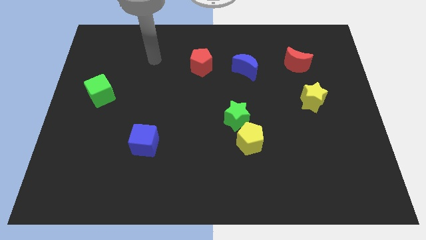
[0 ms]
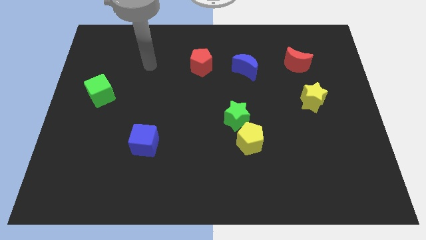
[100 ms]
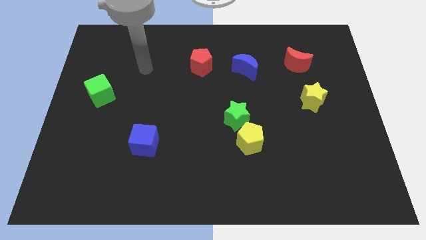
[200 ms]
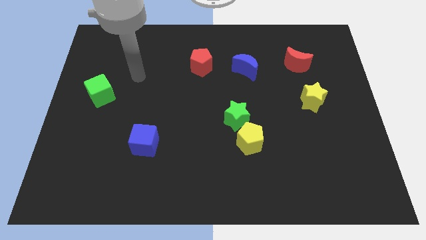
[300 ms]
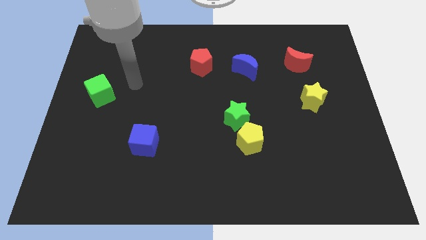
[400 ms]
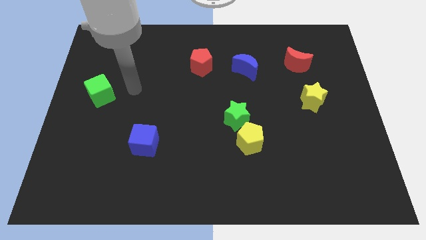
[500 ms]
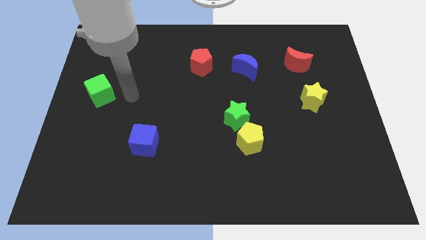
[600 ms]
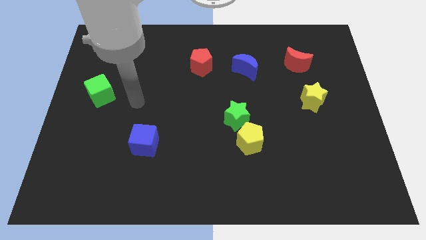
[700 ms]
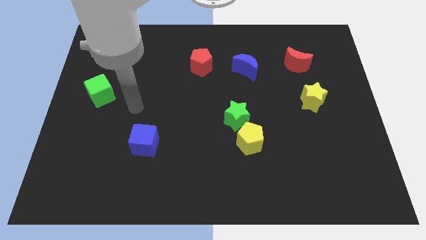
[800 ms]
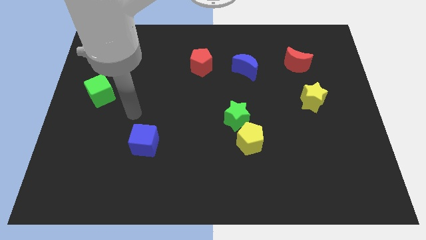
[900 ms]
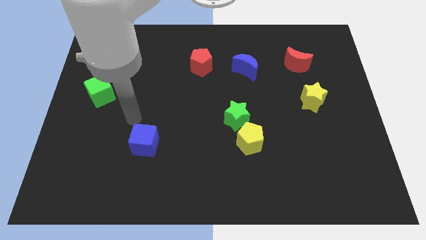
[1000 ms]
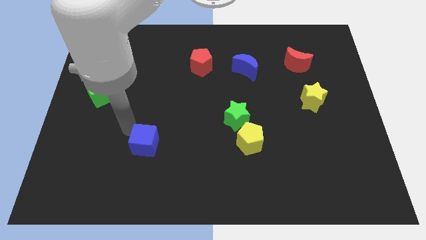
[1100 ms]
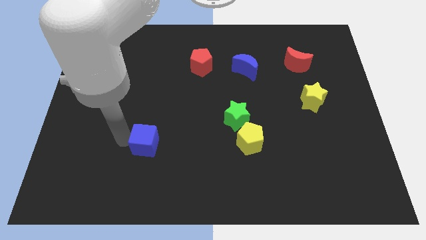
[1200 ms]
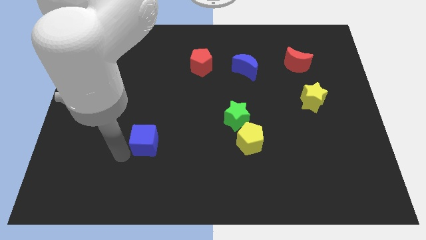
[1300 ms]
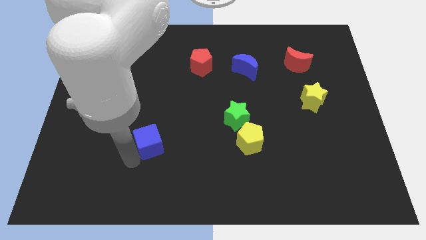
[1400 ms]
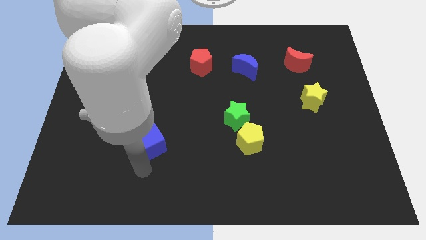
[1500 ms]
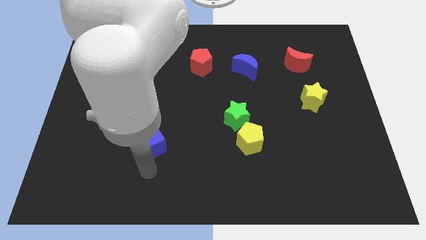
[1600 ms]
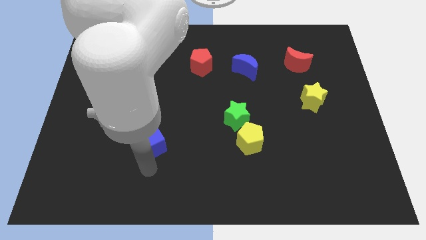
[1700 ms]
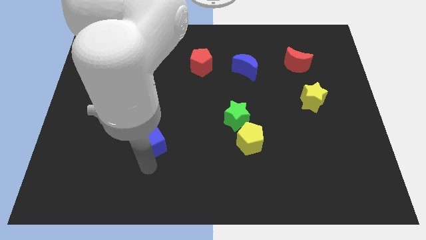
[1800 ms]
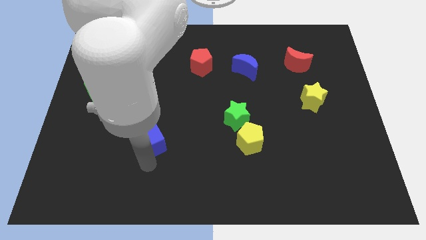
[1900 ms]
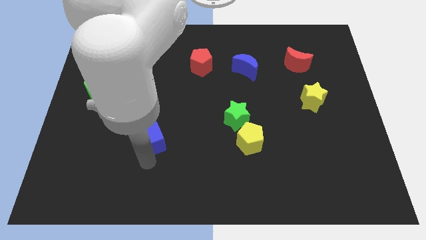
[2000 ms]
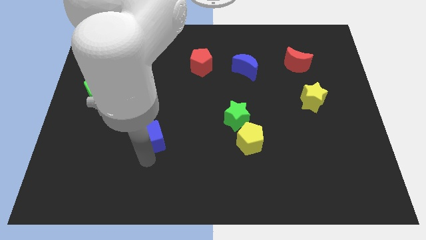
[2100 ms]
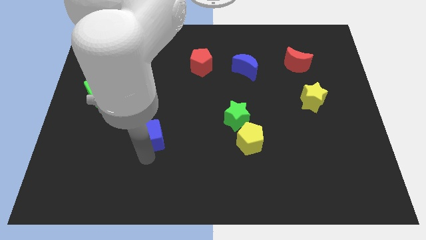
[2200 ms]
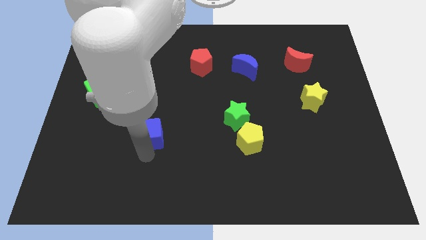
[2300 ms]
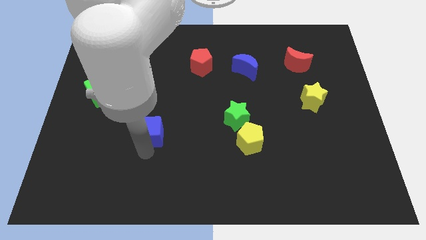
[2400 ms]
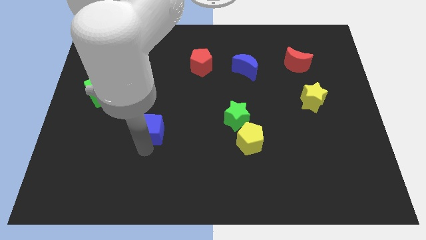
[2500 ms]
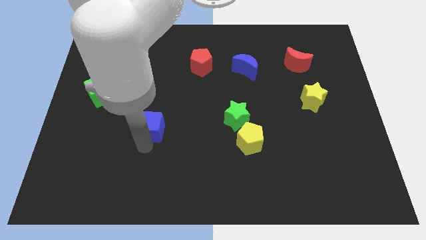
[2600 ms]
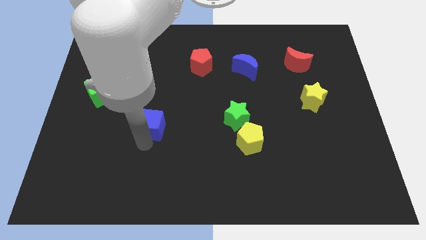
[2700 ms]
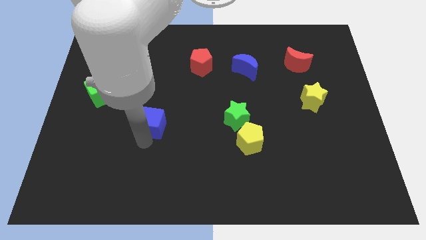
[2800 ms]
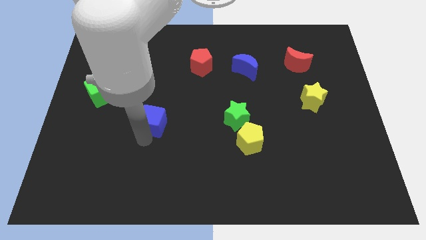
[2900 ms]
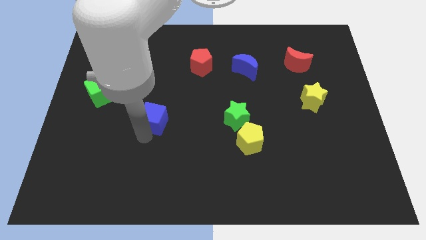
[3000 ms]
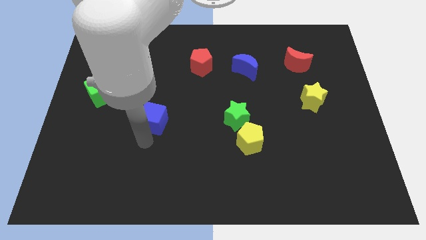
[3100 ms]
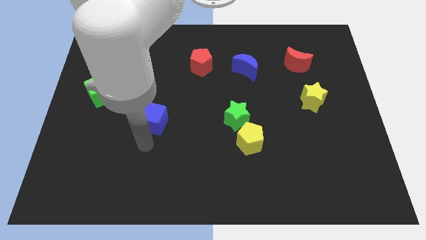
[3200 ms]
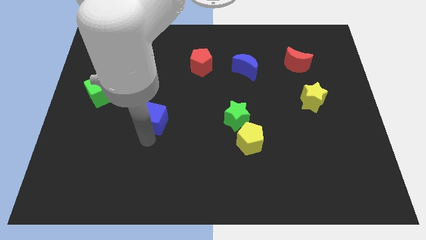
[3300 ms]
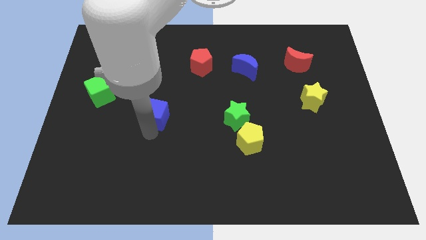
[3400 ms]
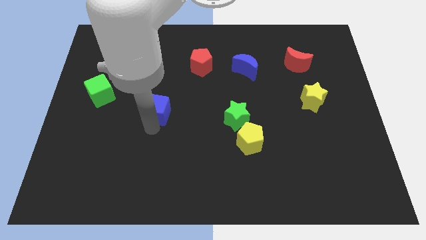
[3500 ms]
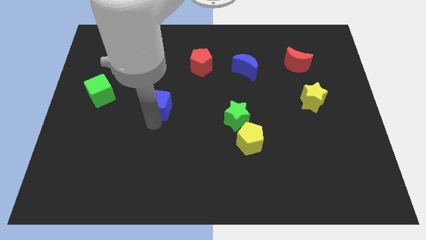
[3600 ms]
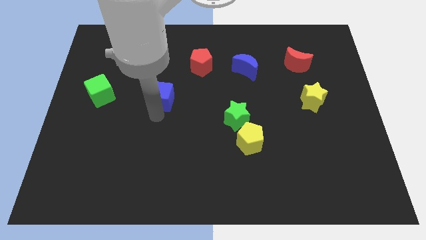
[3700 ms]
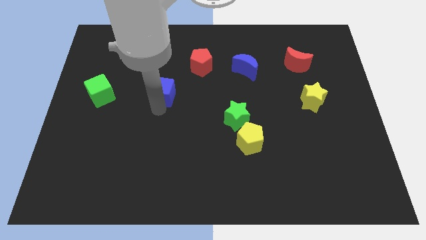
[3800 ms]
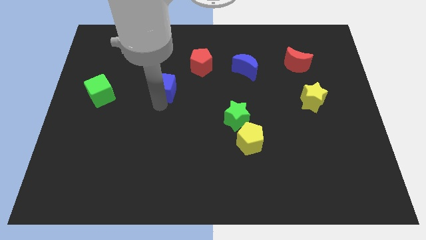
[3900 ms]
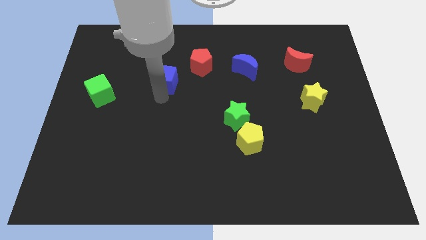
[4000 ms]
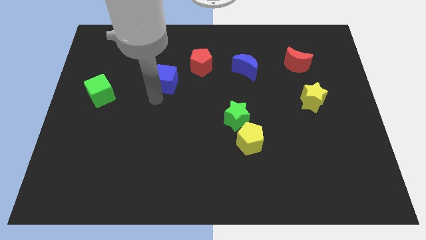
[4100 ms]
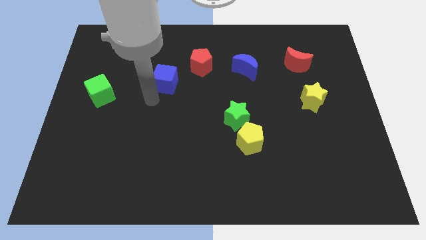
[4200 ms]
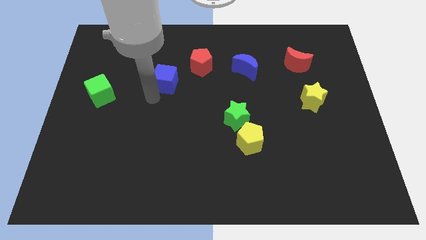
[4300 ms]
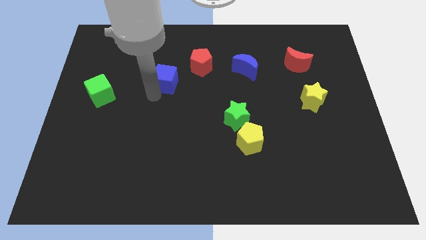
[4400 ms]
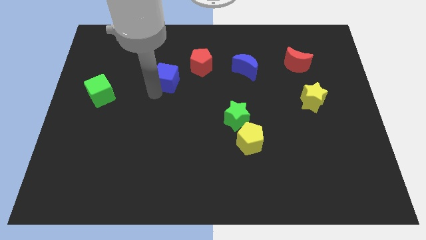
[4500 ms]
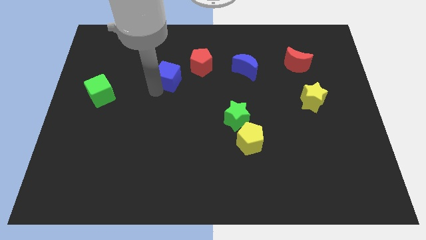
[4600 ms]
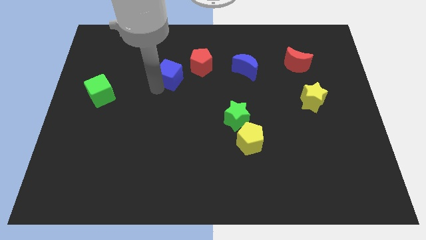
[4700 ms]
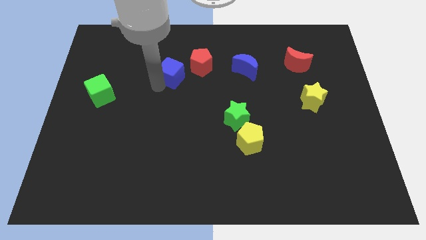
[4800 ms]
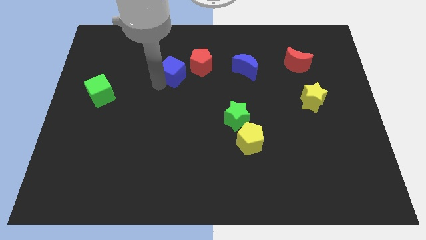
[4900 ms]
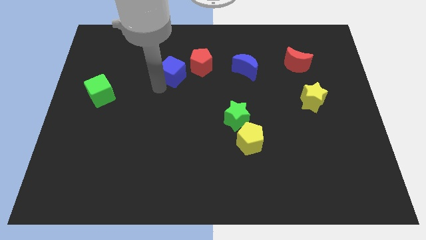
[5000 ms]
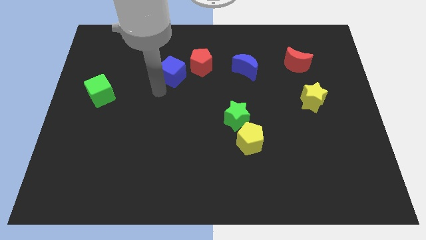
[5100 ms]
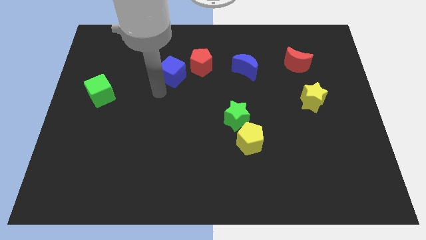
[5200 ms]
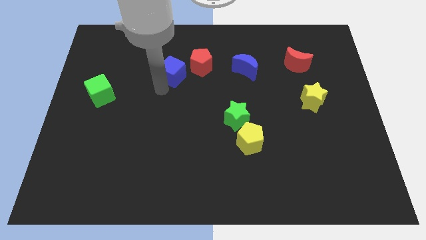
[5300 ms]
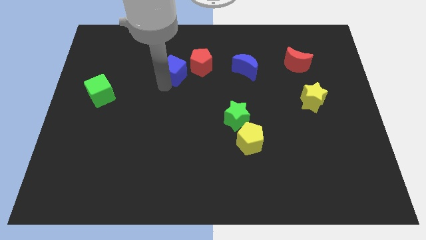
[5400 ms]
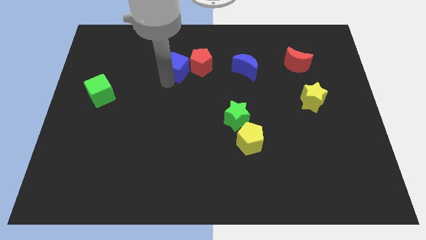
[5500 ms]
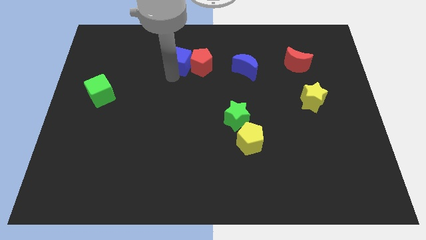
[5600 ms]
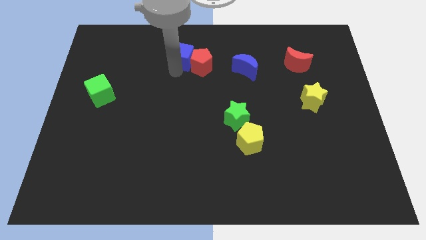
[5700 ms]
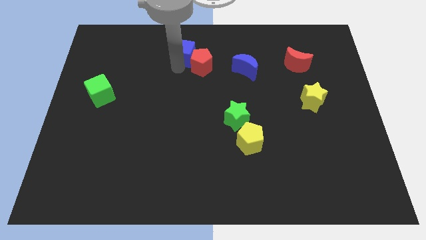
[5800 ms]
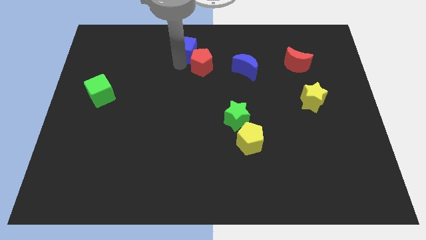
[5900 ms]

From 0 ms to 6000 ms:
push the blue cube to the top side

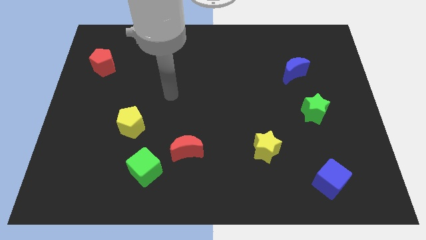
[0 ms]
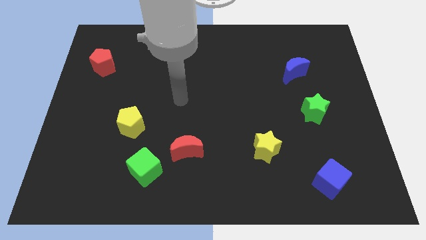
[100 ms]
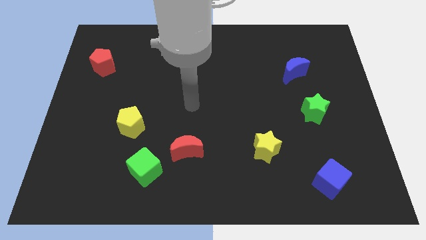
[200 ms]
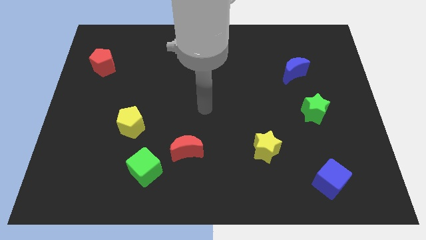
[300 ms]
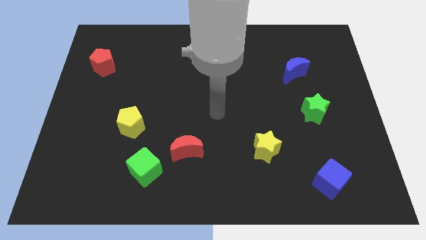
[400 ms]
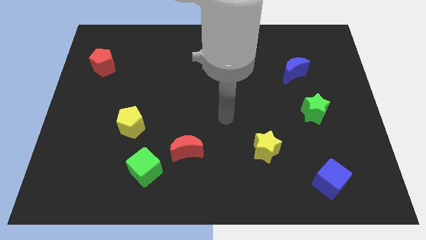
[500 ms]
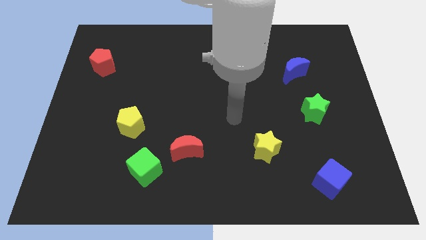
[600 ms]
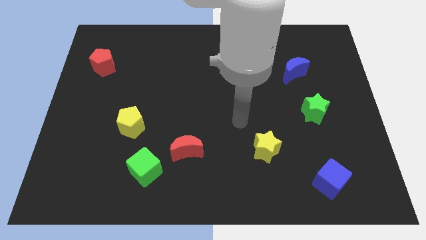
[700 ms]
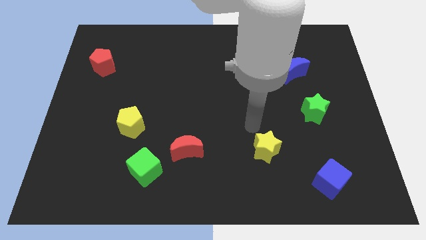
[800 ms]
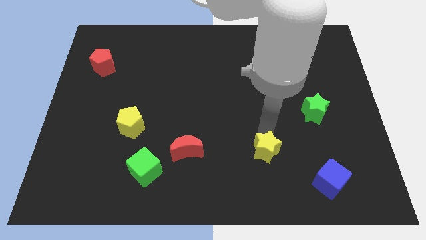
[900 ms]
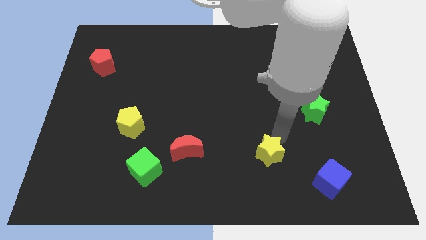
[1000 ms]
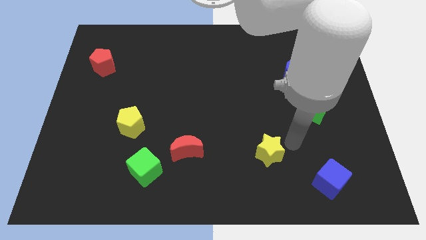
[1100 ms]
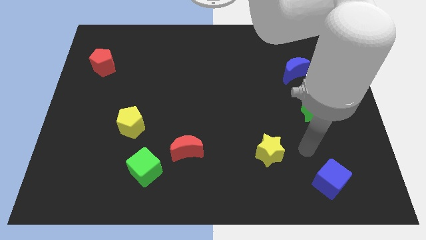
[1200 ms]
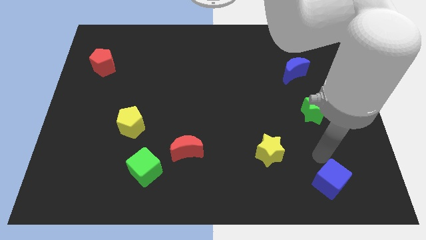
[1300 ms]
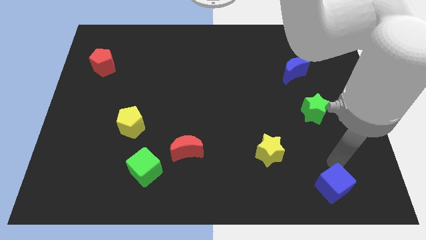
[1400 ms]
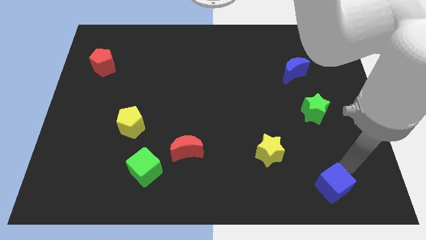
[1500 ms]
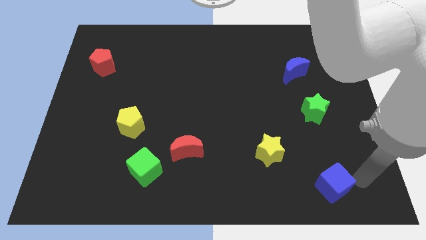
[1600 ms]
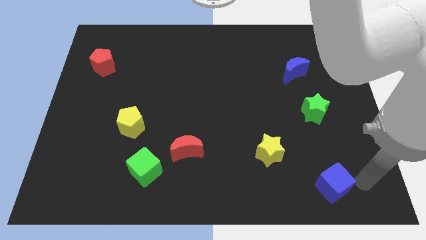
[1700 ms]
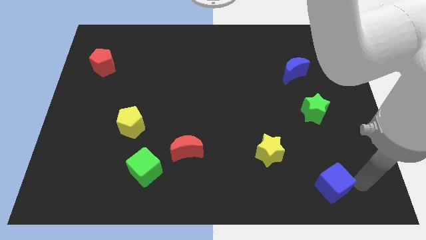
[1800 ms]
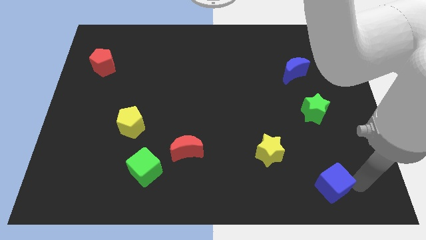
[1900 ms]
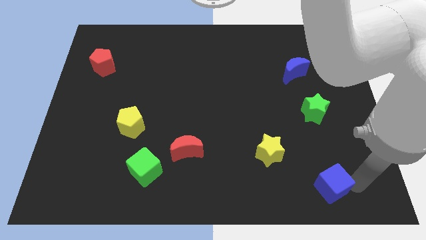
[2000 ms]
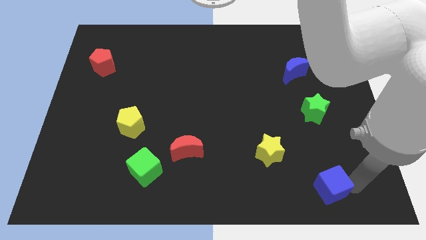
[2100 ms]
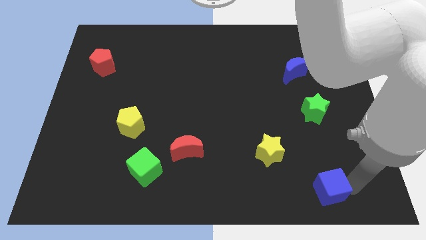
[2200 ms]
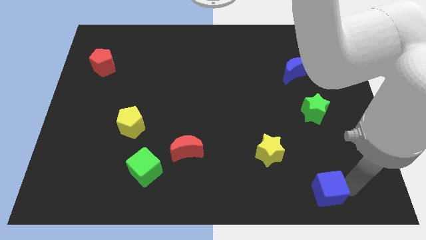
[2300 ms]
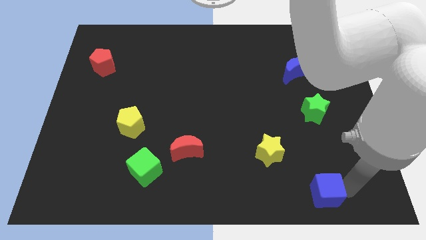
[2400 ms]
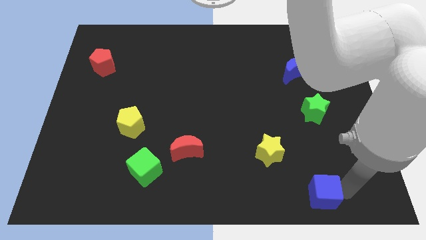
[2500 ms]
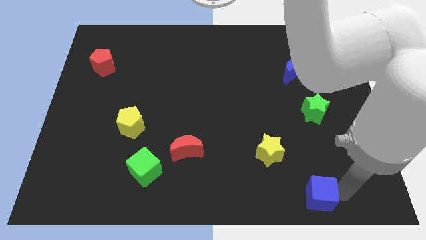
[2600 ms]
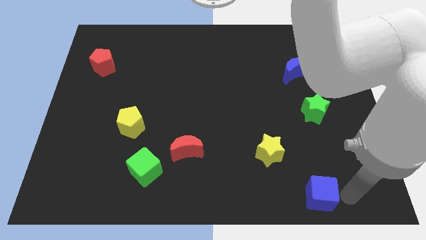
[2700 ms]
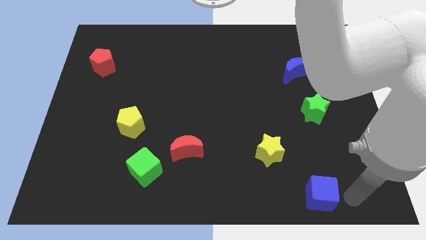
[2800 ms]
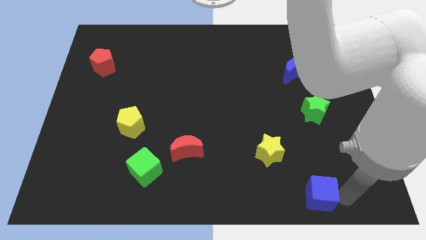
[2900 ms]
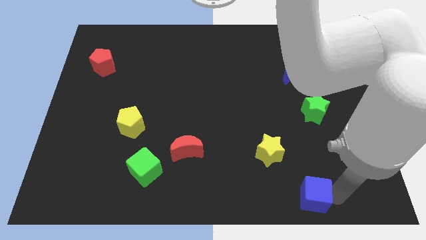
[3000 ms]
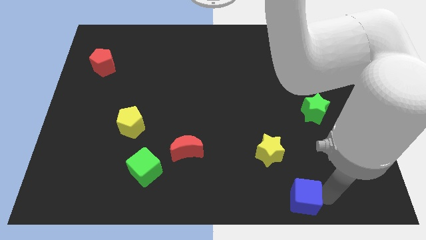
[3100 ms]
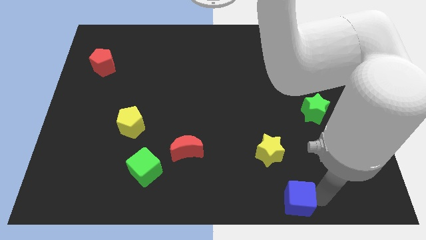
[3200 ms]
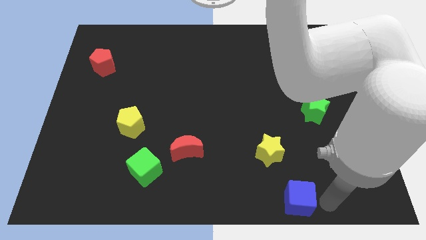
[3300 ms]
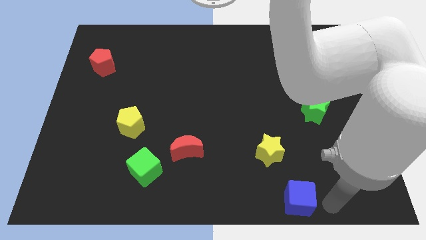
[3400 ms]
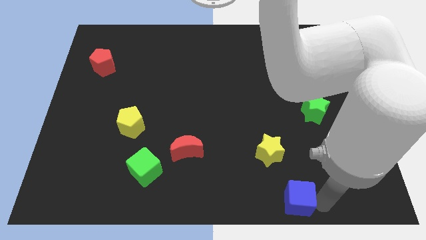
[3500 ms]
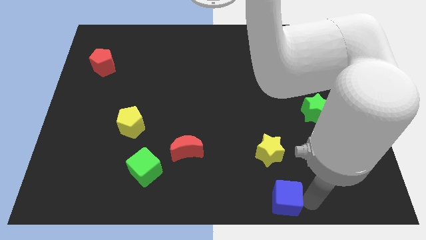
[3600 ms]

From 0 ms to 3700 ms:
slide the blue cube to the bottom side
